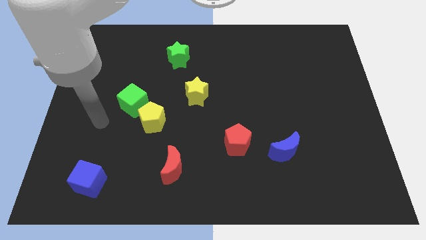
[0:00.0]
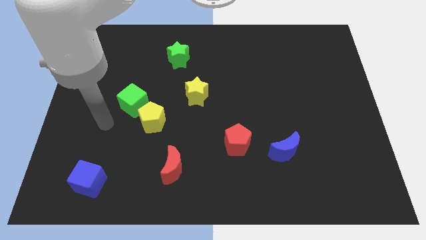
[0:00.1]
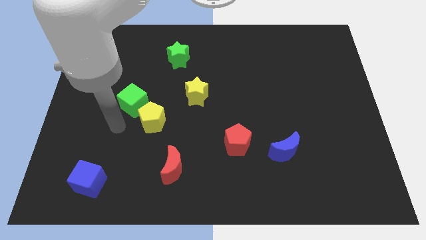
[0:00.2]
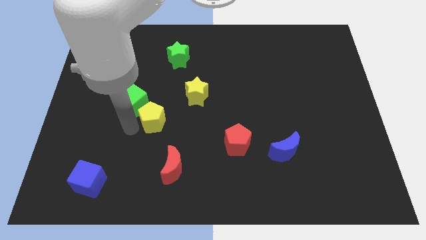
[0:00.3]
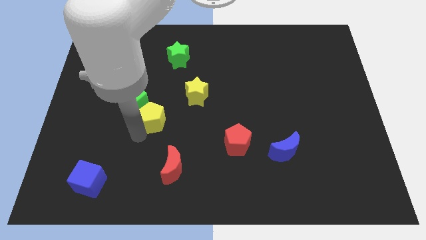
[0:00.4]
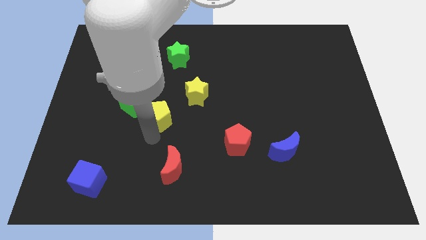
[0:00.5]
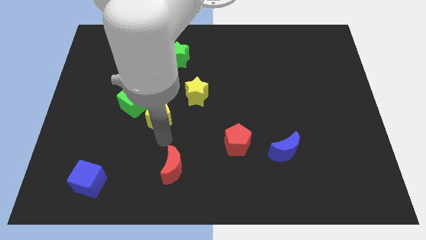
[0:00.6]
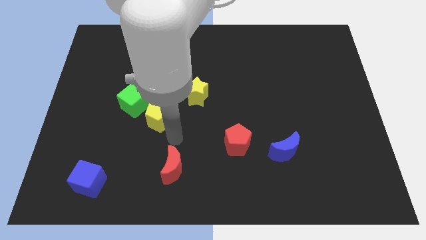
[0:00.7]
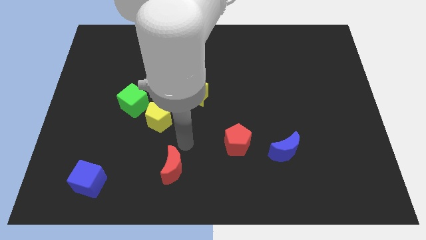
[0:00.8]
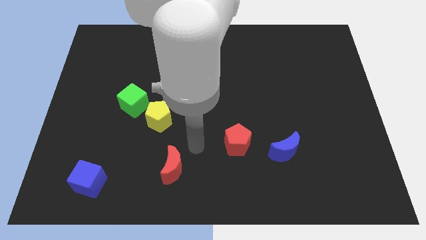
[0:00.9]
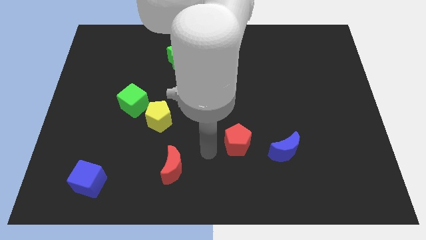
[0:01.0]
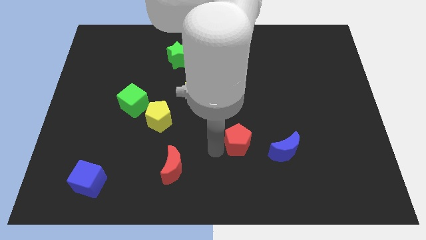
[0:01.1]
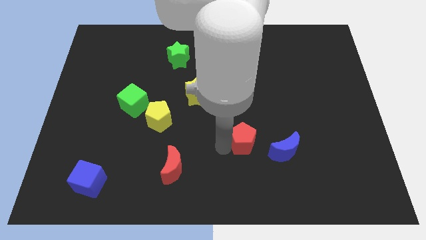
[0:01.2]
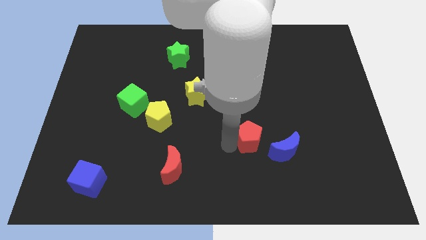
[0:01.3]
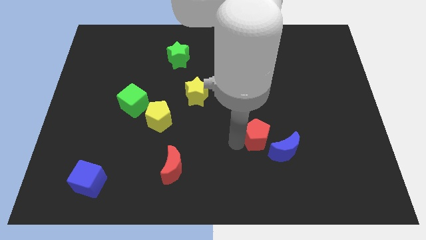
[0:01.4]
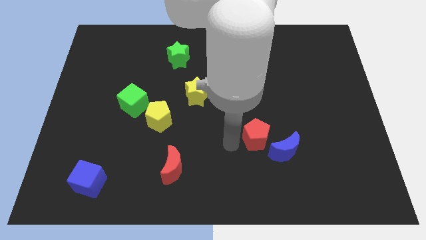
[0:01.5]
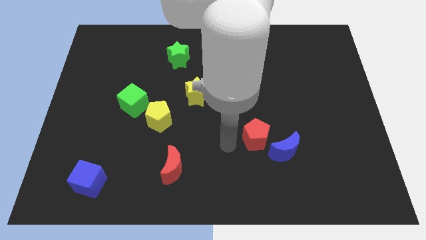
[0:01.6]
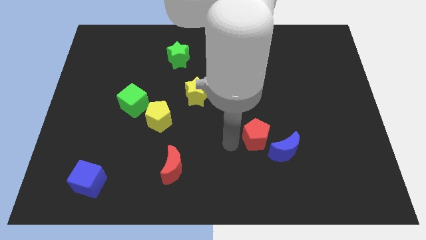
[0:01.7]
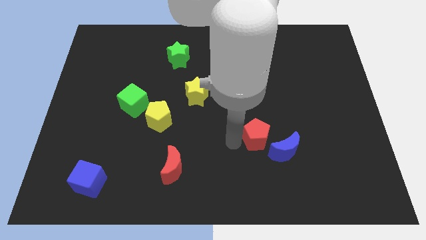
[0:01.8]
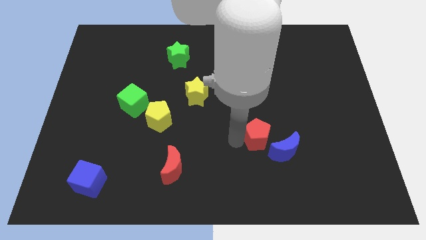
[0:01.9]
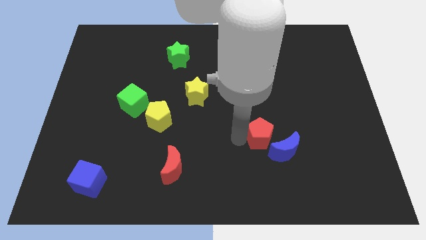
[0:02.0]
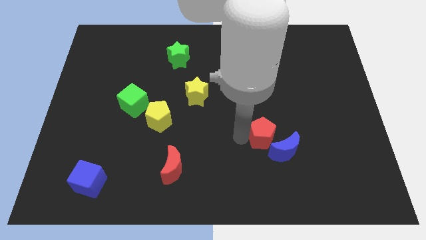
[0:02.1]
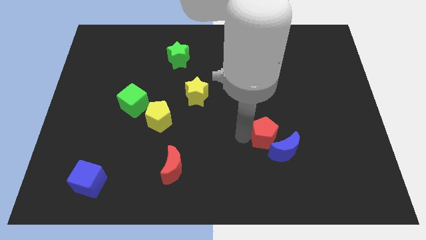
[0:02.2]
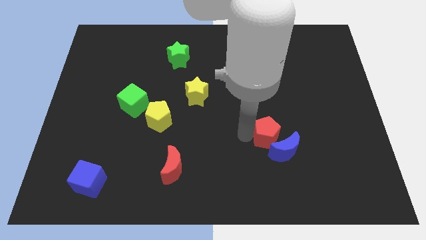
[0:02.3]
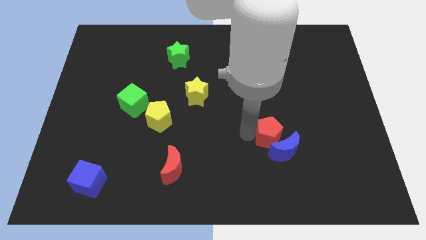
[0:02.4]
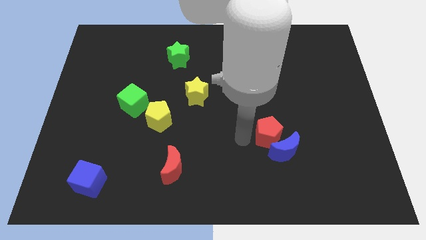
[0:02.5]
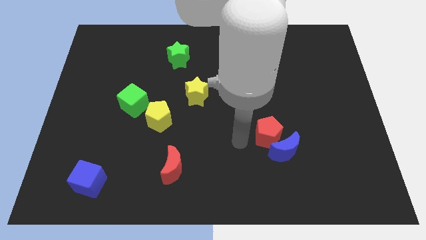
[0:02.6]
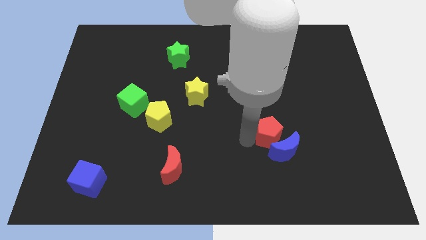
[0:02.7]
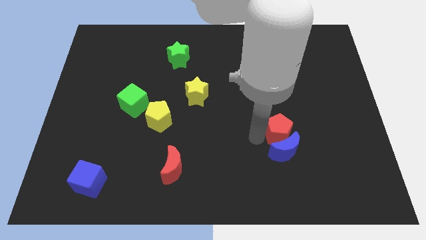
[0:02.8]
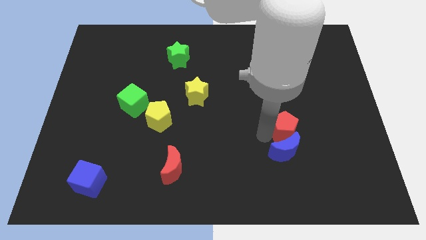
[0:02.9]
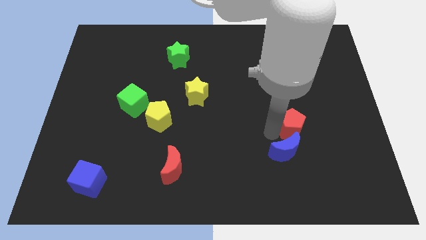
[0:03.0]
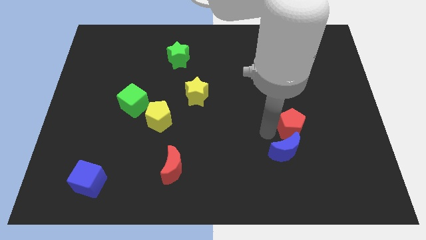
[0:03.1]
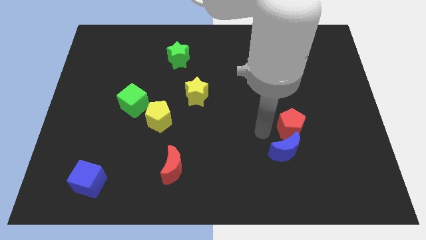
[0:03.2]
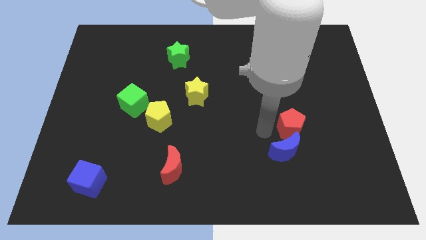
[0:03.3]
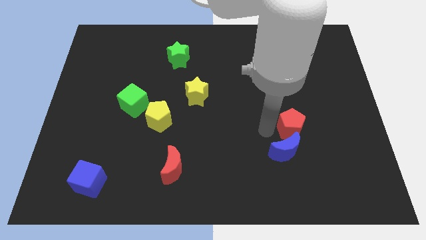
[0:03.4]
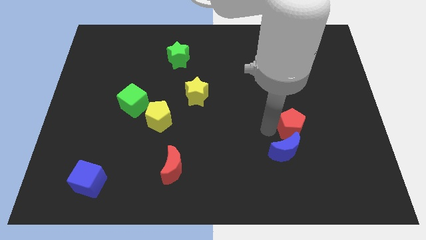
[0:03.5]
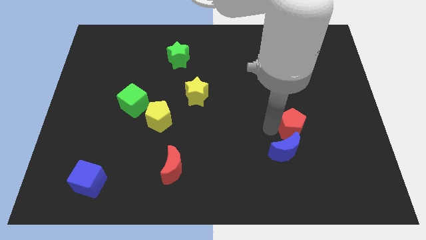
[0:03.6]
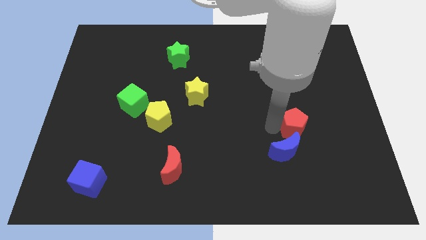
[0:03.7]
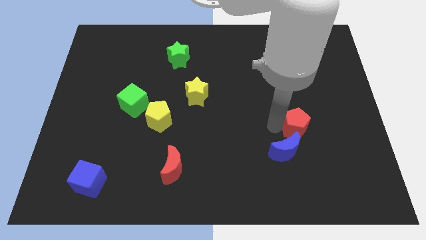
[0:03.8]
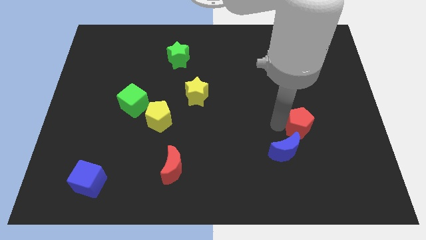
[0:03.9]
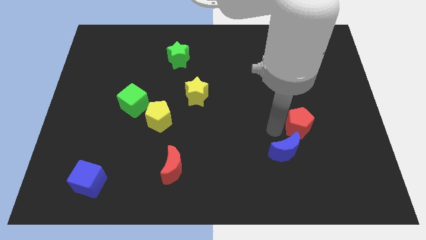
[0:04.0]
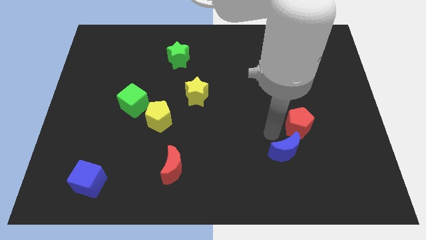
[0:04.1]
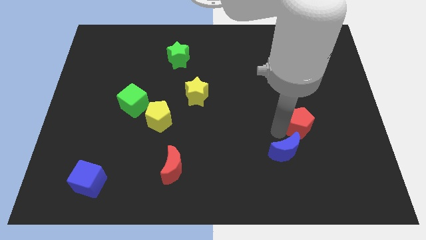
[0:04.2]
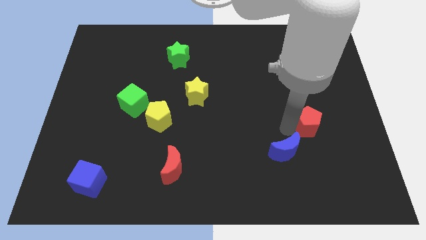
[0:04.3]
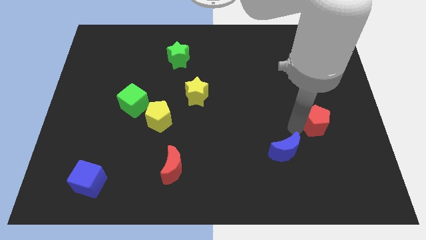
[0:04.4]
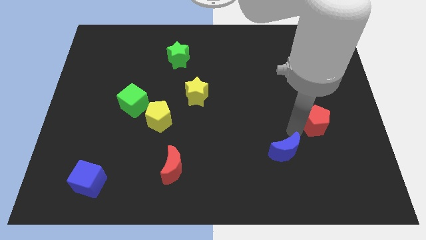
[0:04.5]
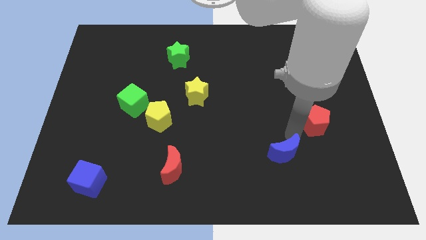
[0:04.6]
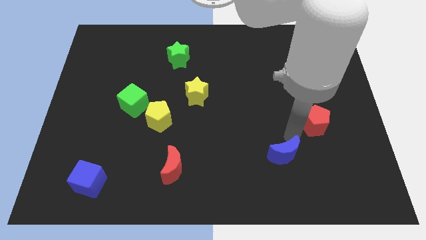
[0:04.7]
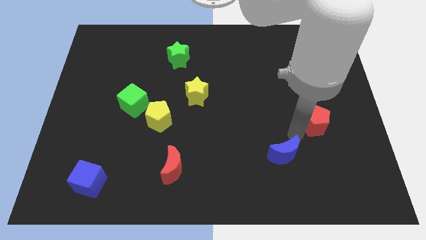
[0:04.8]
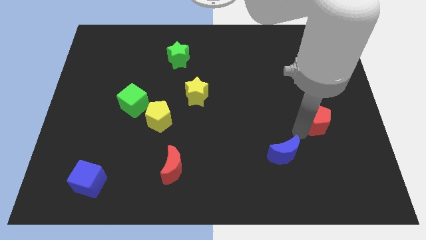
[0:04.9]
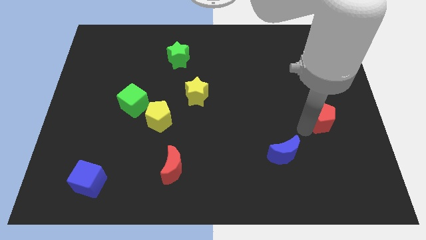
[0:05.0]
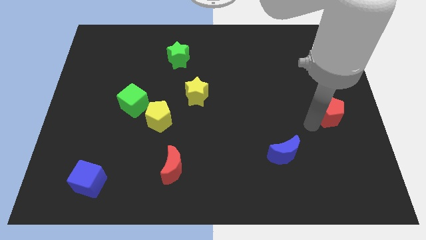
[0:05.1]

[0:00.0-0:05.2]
slide the red pentagon to the right side

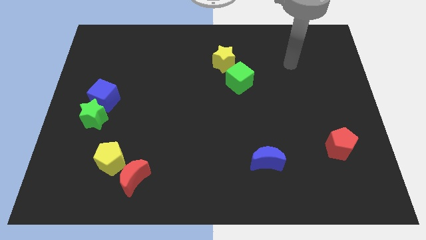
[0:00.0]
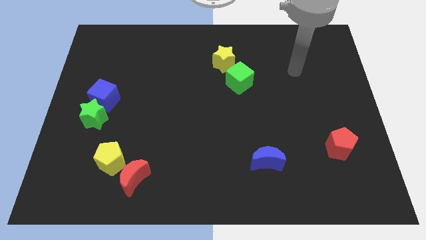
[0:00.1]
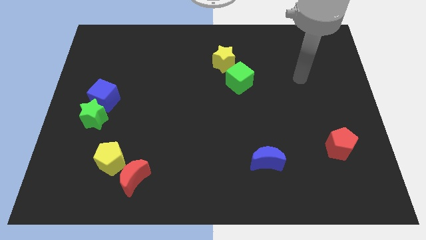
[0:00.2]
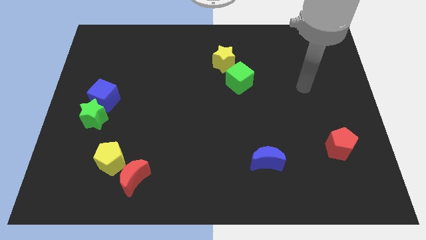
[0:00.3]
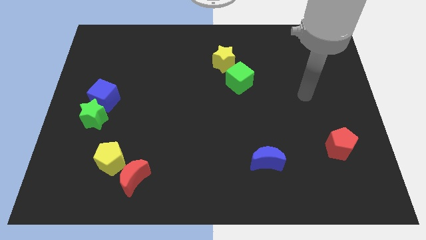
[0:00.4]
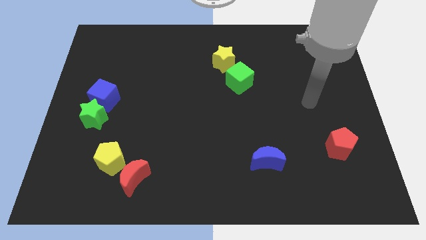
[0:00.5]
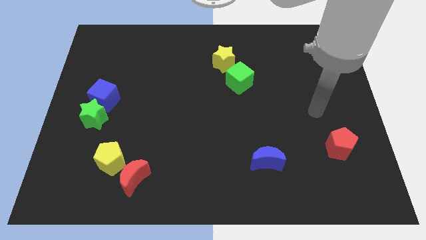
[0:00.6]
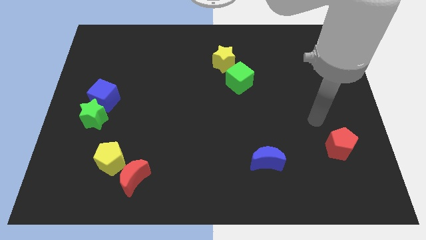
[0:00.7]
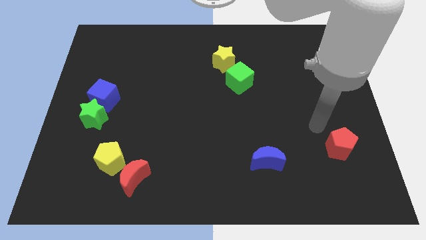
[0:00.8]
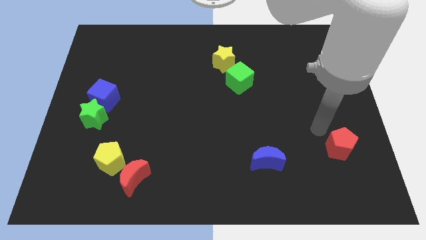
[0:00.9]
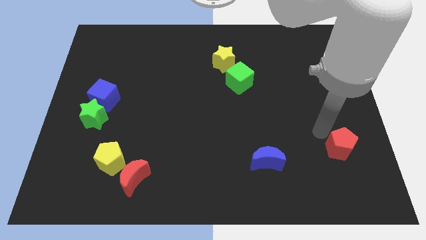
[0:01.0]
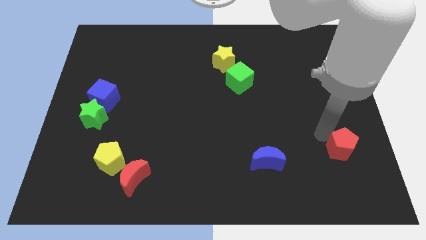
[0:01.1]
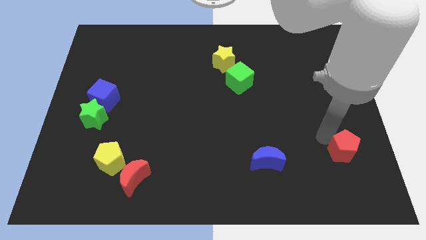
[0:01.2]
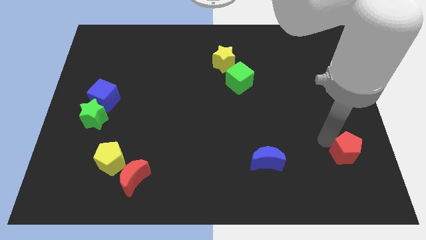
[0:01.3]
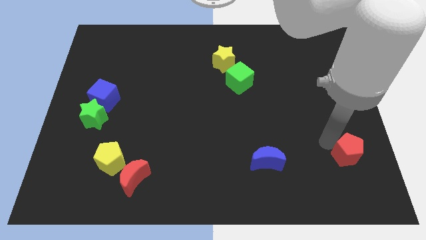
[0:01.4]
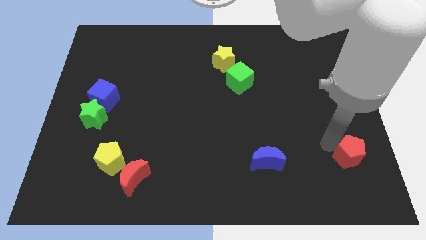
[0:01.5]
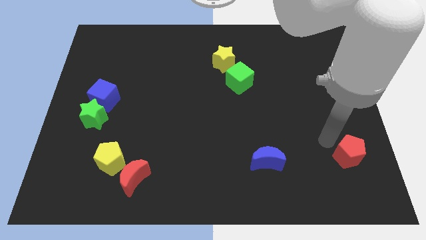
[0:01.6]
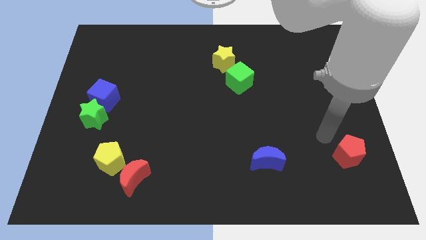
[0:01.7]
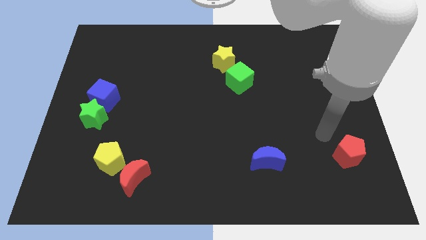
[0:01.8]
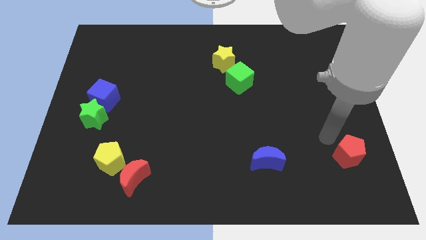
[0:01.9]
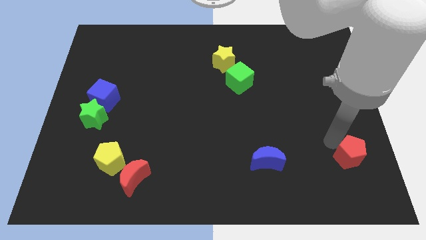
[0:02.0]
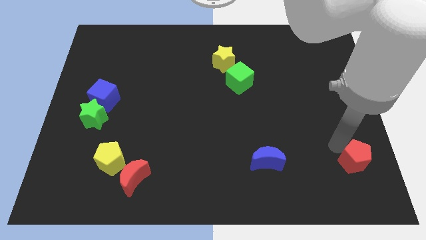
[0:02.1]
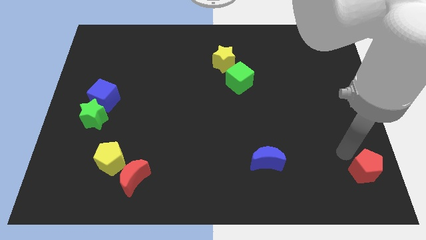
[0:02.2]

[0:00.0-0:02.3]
put the red pentagon to the bottom right
